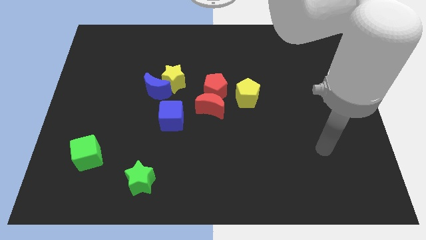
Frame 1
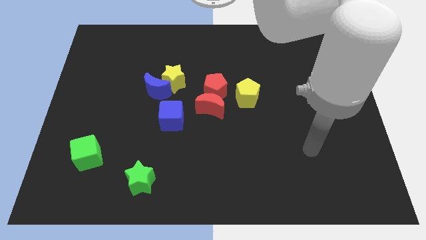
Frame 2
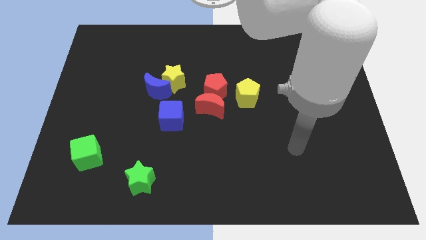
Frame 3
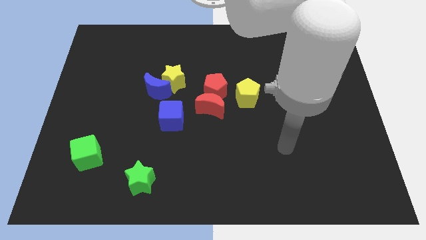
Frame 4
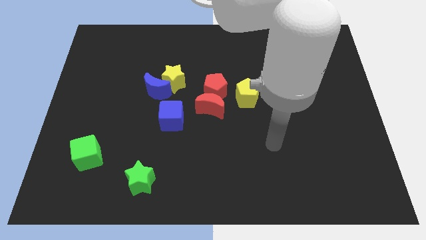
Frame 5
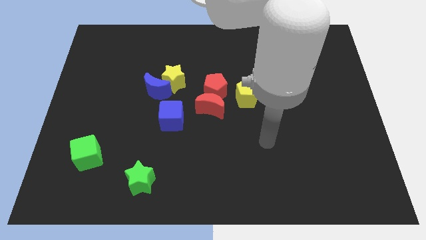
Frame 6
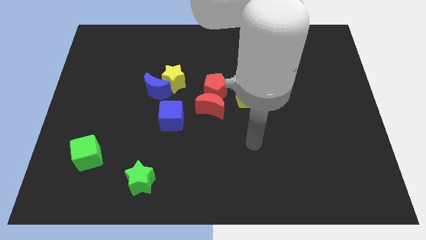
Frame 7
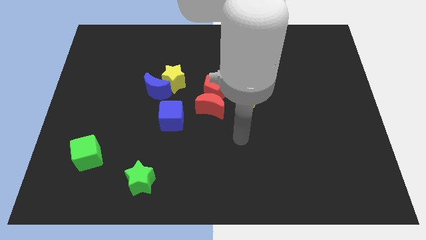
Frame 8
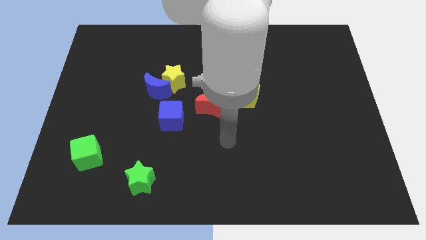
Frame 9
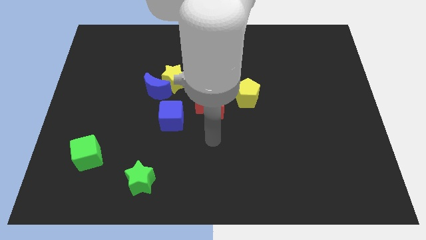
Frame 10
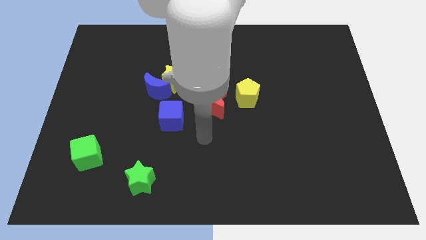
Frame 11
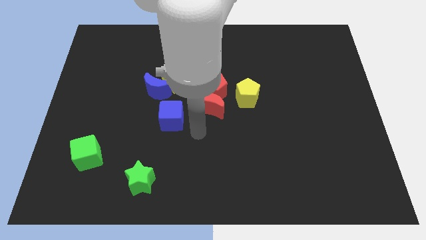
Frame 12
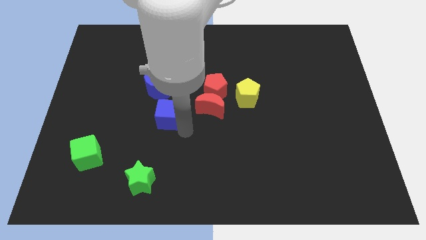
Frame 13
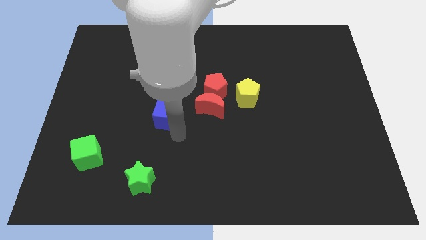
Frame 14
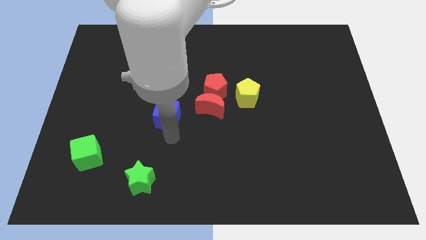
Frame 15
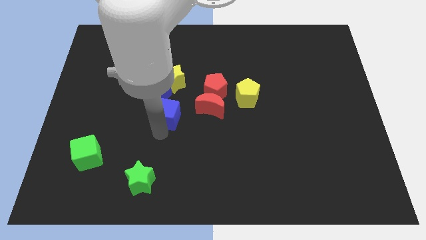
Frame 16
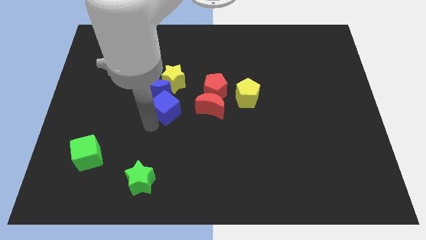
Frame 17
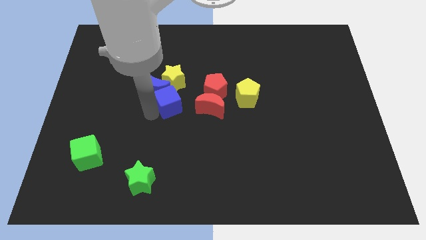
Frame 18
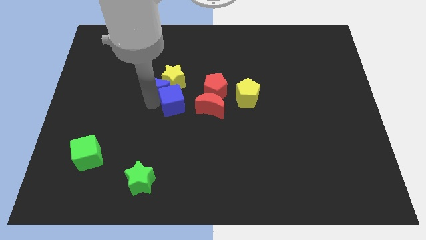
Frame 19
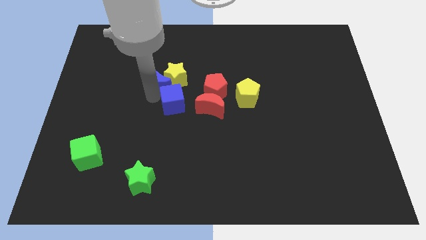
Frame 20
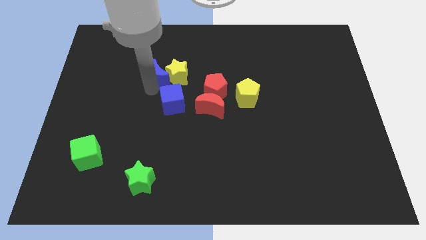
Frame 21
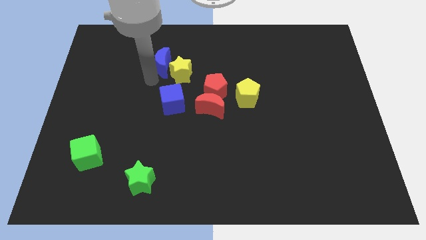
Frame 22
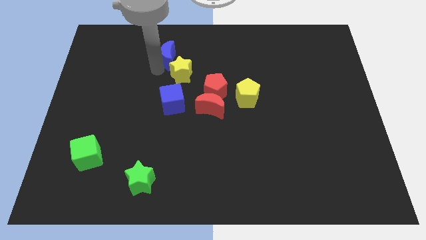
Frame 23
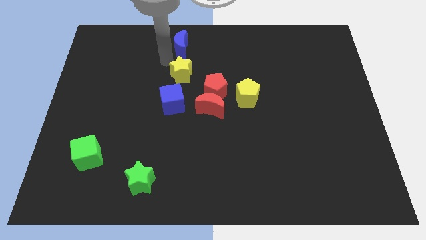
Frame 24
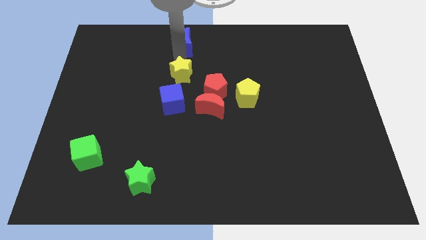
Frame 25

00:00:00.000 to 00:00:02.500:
move the yellow star away from the blue moon

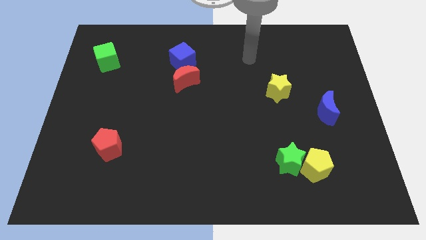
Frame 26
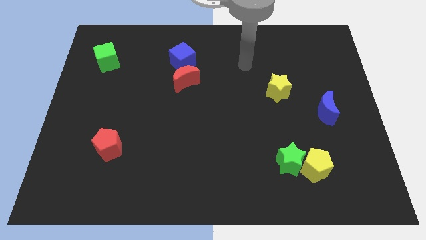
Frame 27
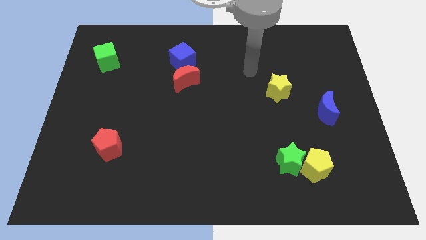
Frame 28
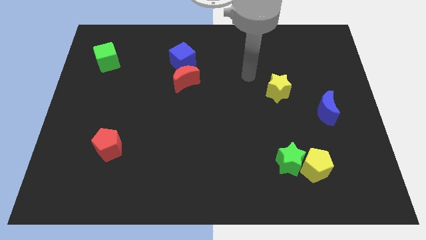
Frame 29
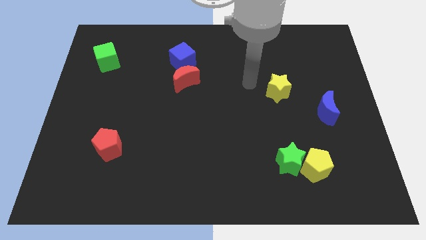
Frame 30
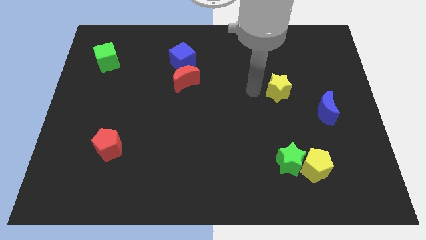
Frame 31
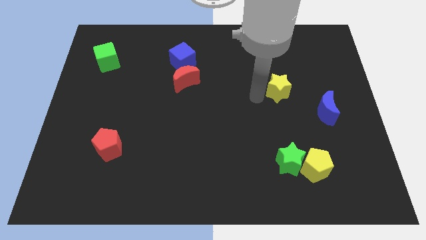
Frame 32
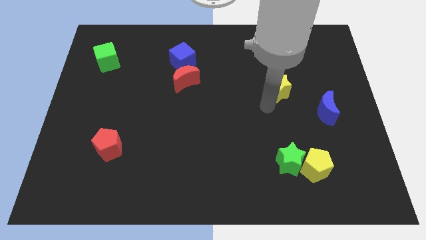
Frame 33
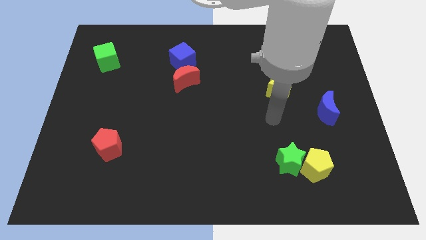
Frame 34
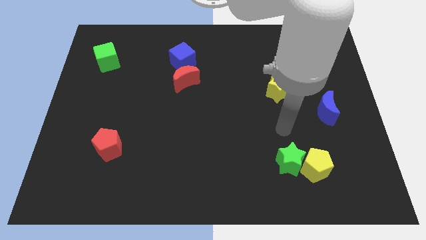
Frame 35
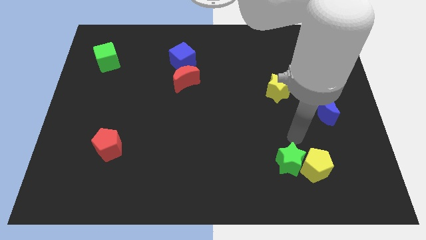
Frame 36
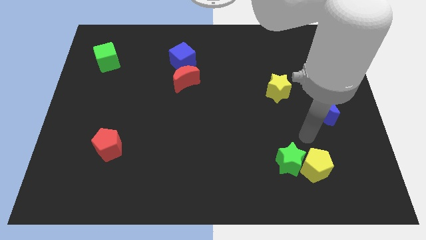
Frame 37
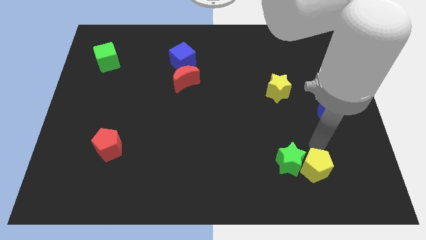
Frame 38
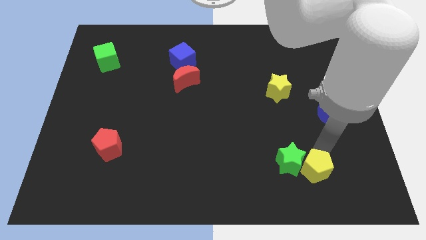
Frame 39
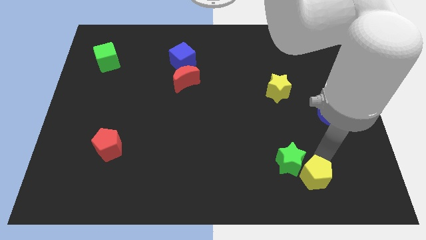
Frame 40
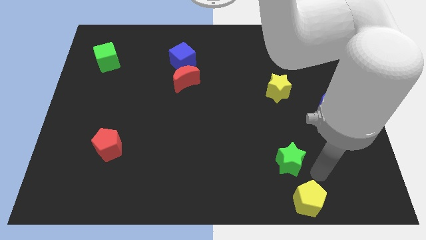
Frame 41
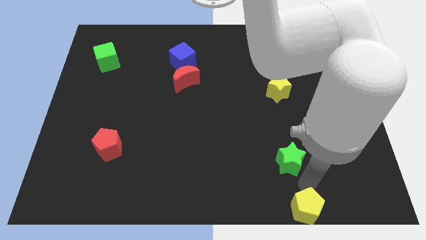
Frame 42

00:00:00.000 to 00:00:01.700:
pull the green star apart from the yellow pentagon

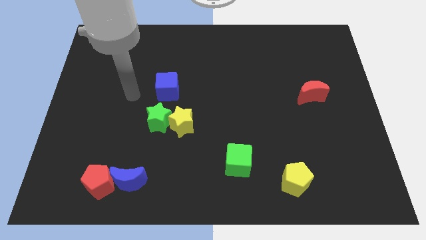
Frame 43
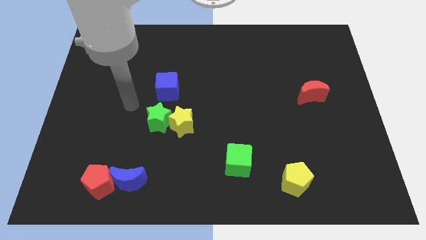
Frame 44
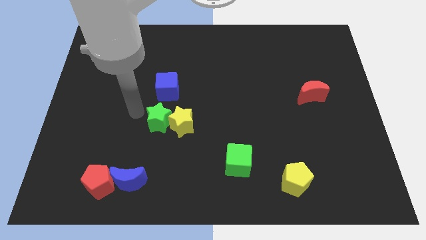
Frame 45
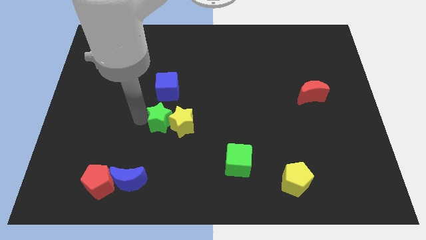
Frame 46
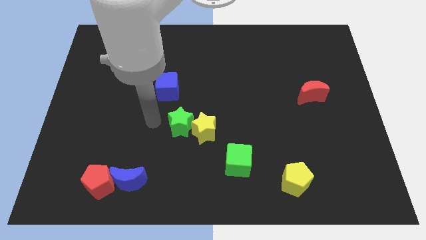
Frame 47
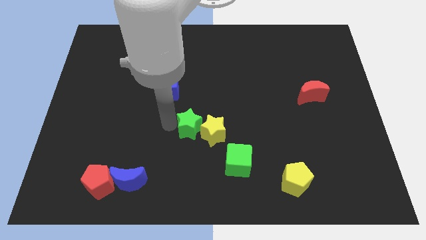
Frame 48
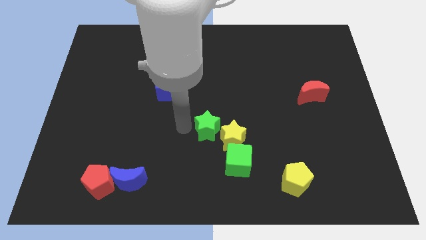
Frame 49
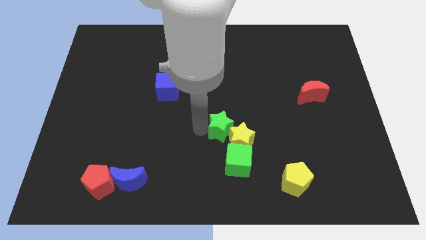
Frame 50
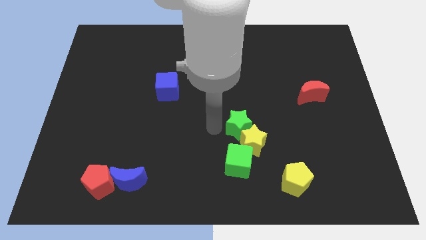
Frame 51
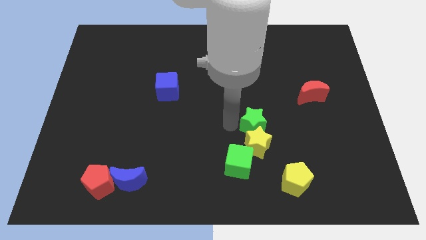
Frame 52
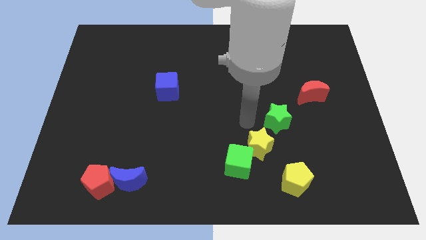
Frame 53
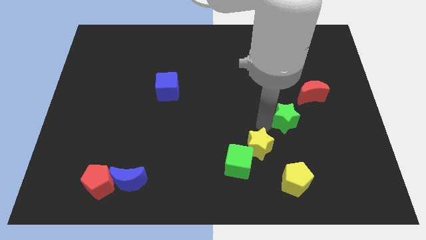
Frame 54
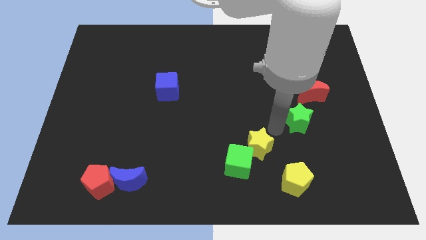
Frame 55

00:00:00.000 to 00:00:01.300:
pull the yellow star apart from the green star

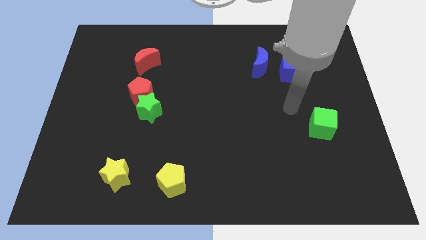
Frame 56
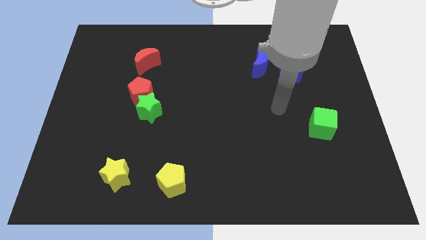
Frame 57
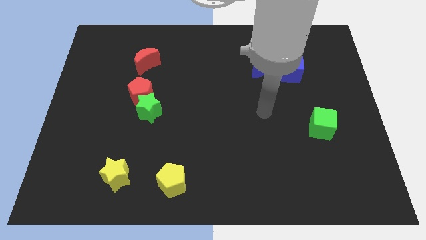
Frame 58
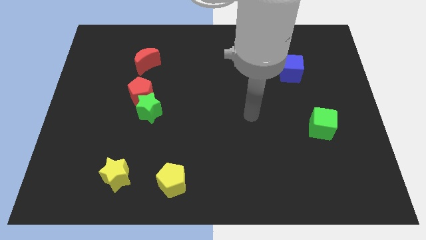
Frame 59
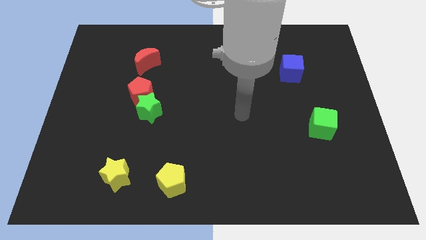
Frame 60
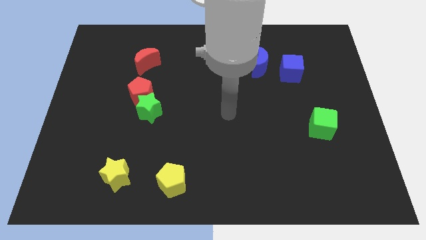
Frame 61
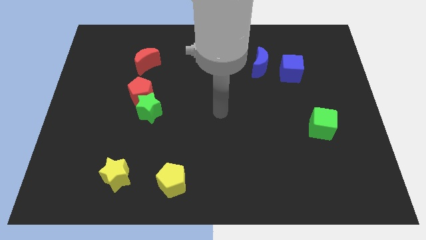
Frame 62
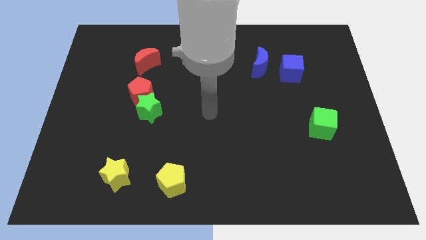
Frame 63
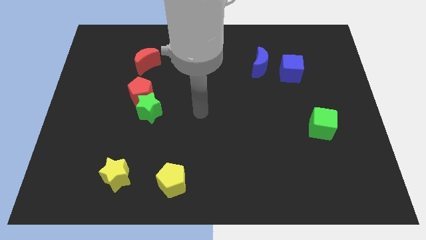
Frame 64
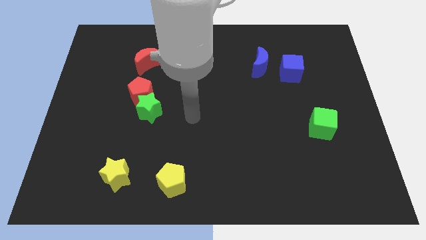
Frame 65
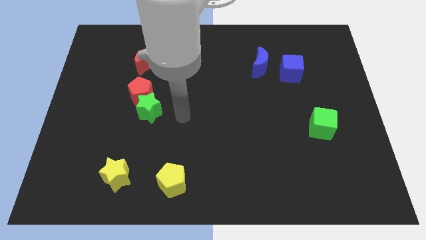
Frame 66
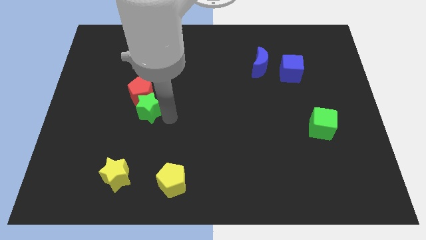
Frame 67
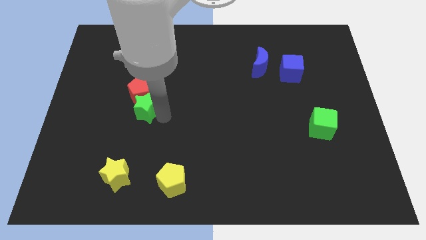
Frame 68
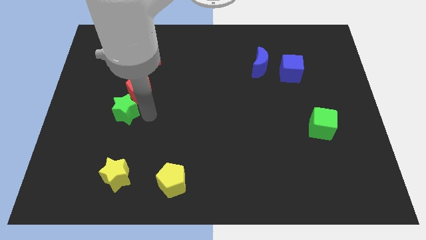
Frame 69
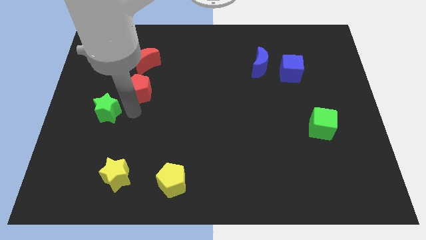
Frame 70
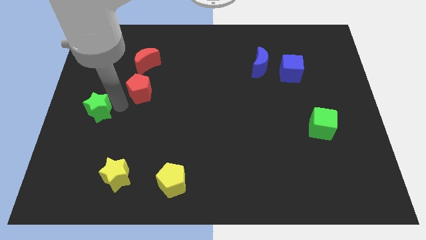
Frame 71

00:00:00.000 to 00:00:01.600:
move the red pentagon away from the green star

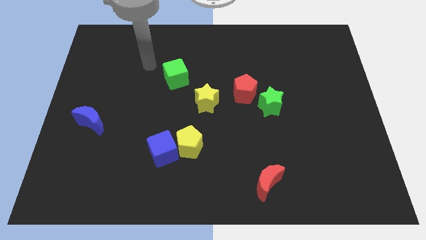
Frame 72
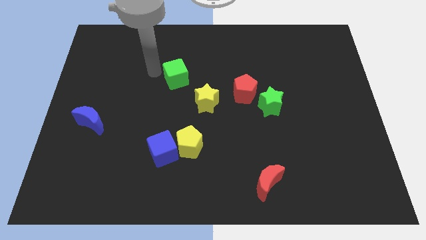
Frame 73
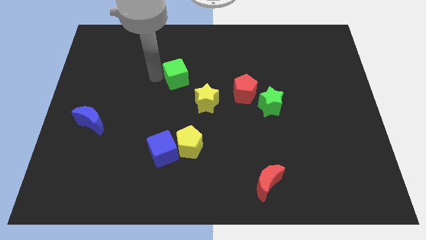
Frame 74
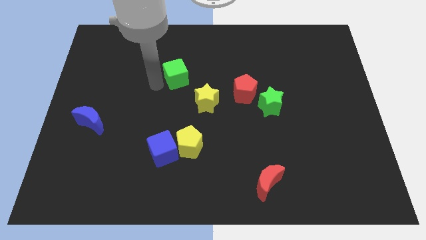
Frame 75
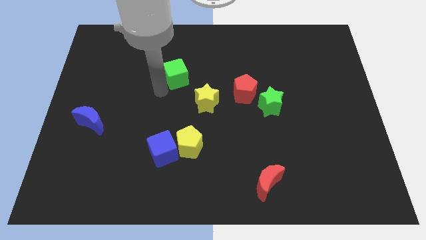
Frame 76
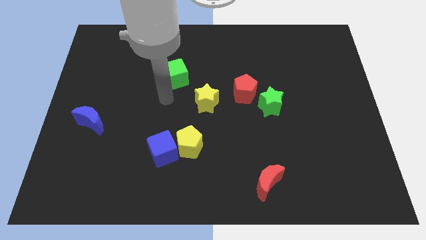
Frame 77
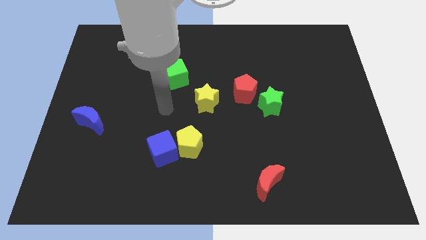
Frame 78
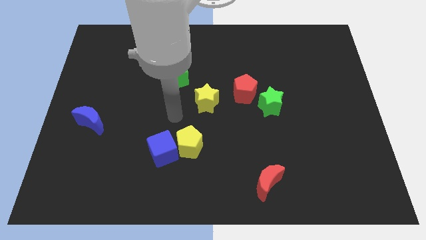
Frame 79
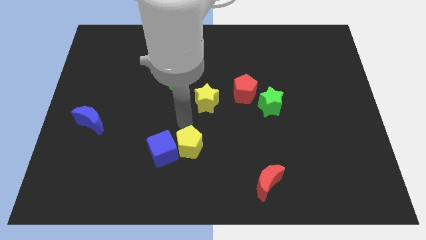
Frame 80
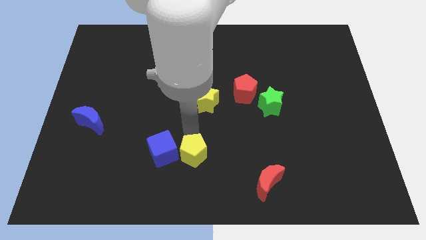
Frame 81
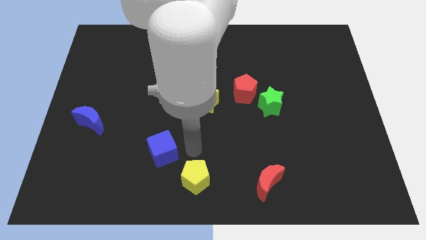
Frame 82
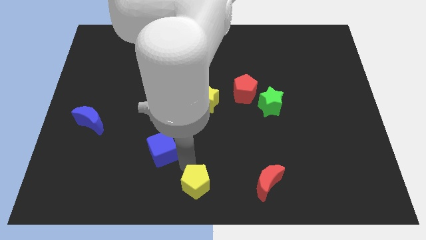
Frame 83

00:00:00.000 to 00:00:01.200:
pull the blue cube apart from the yellow pentagon

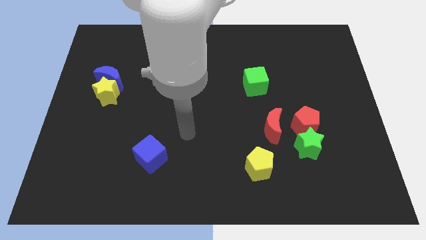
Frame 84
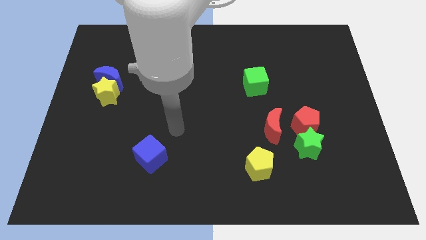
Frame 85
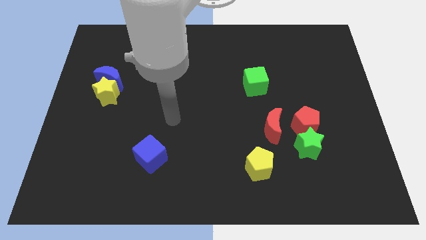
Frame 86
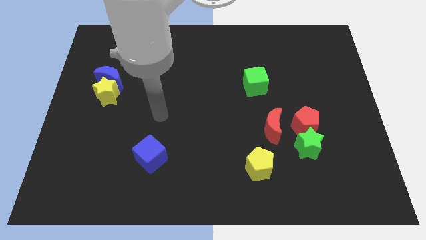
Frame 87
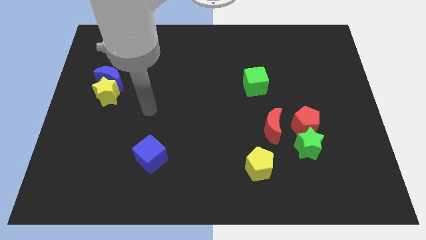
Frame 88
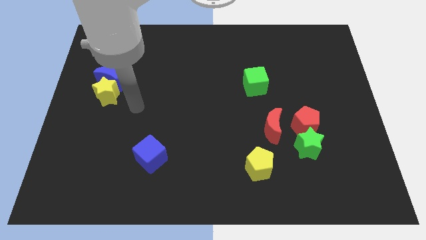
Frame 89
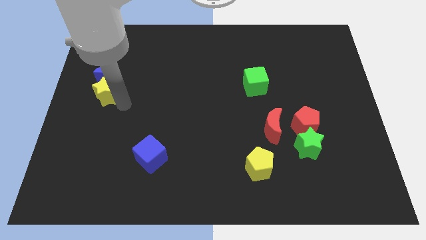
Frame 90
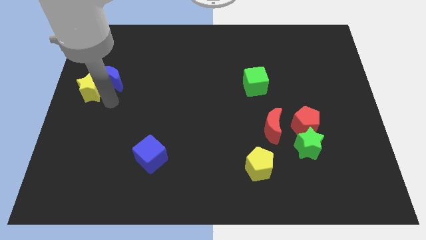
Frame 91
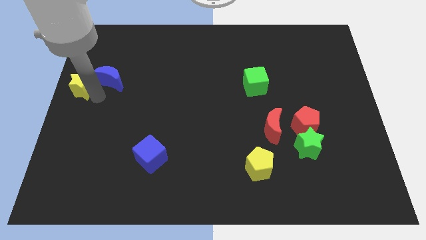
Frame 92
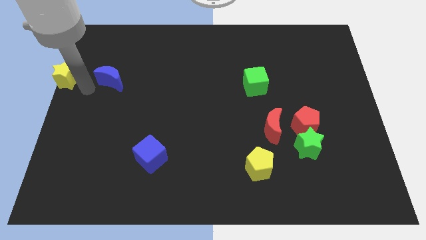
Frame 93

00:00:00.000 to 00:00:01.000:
pull the blue moon apart from the yellow star
